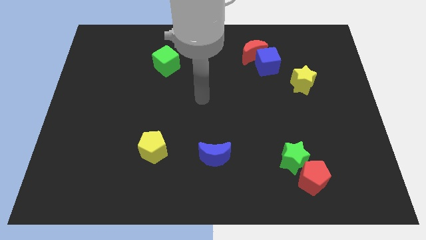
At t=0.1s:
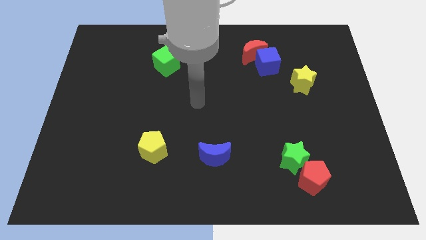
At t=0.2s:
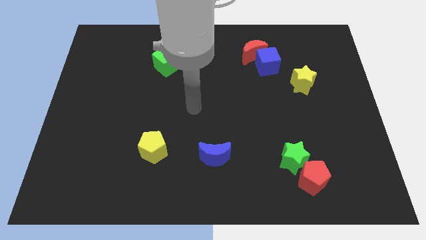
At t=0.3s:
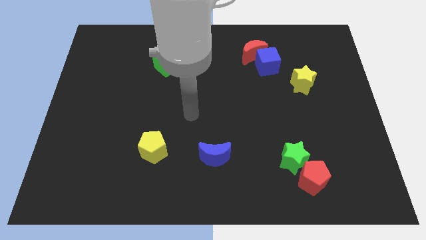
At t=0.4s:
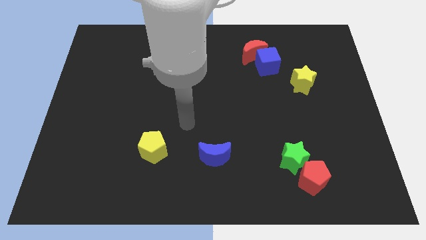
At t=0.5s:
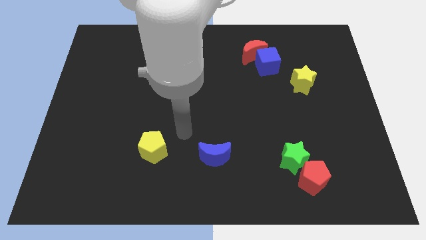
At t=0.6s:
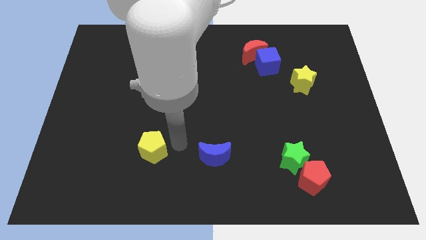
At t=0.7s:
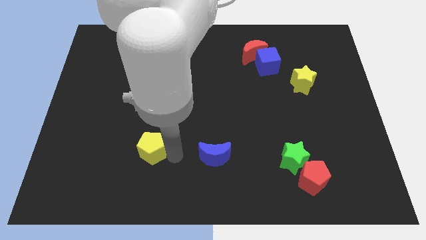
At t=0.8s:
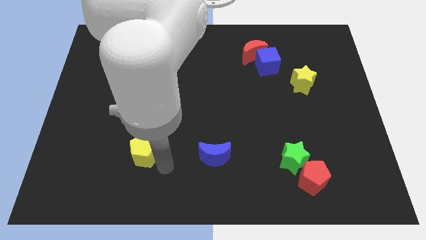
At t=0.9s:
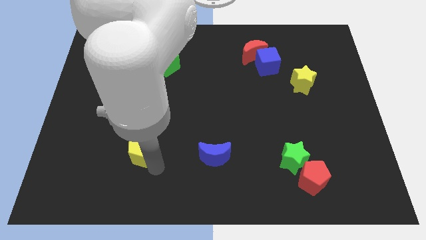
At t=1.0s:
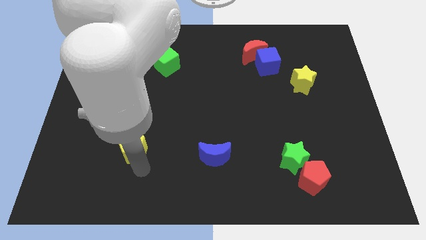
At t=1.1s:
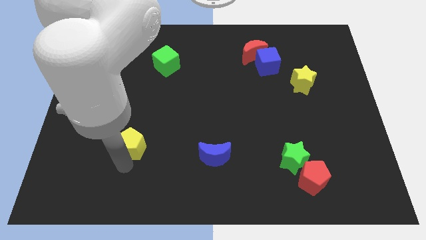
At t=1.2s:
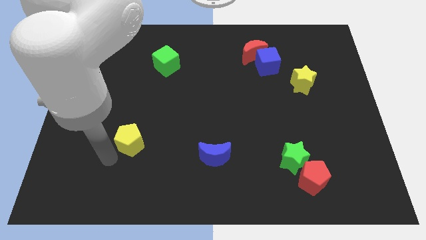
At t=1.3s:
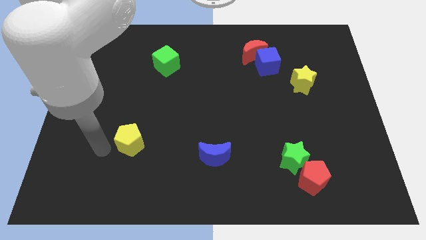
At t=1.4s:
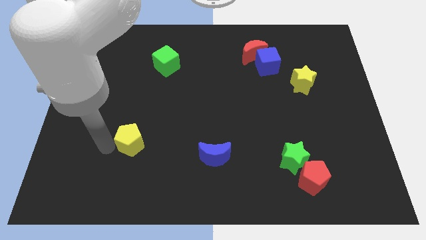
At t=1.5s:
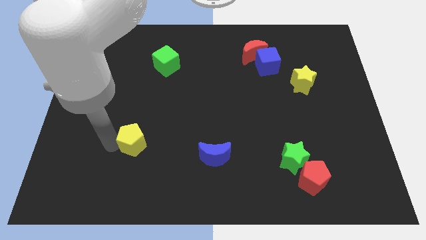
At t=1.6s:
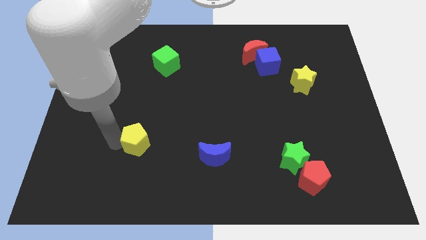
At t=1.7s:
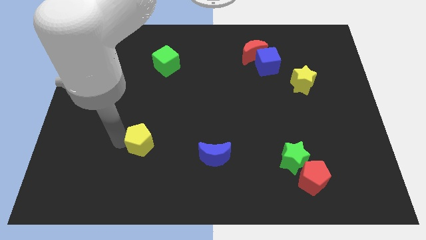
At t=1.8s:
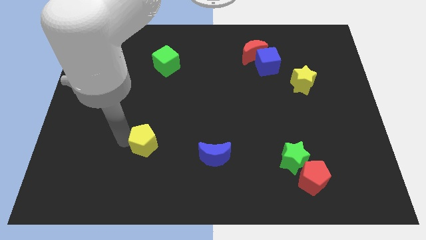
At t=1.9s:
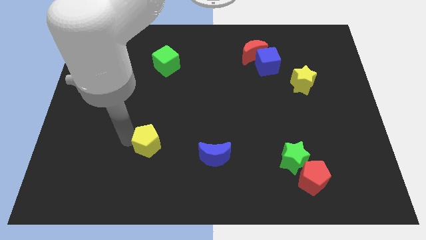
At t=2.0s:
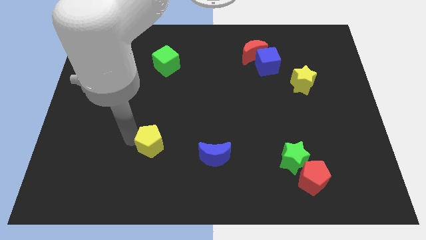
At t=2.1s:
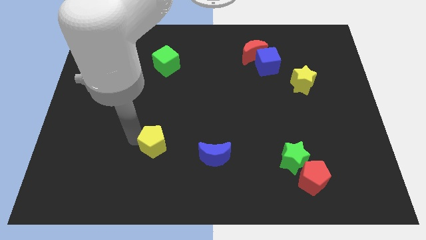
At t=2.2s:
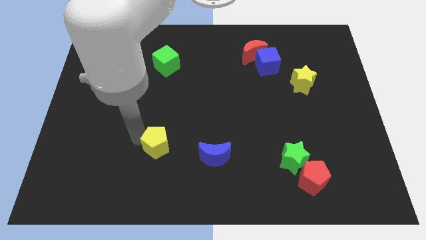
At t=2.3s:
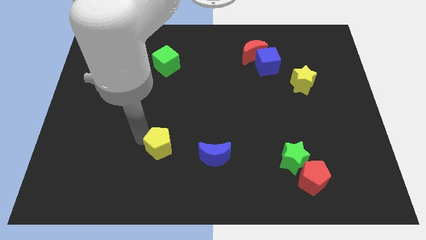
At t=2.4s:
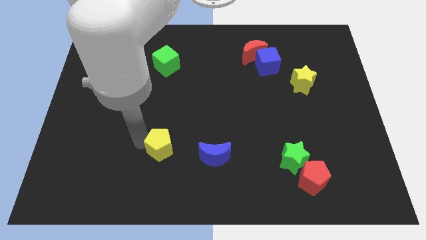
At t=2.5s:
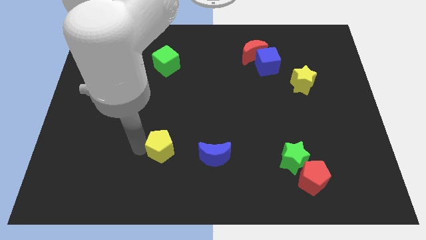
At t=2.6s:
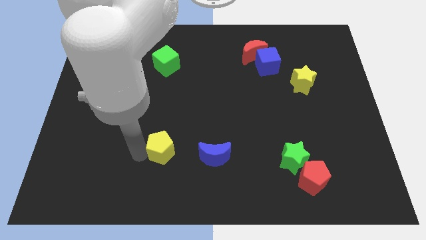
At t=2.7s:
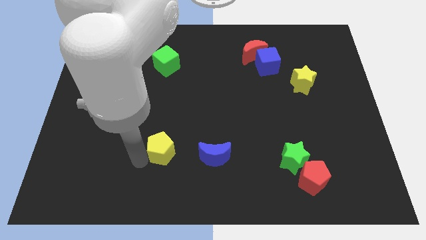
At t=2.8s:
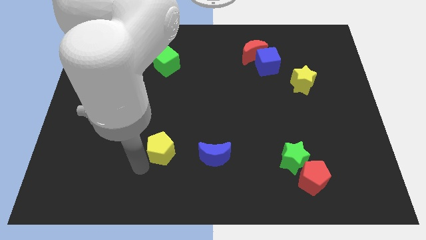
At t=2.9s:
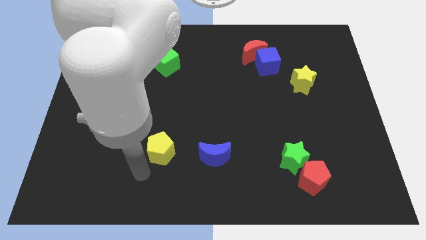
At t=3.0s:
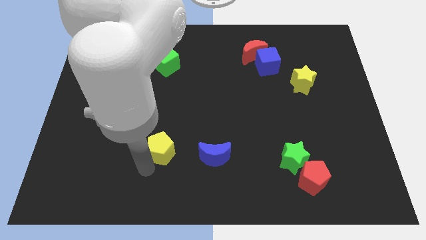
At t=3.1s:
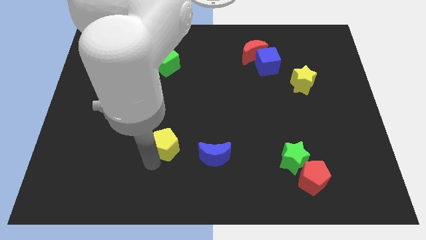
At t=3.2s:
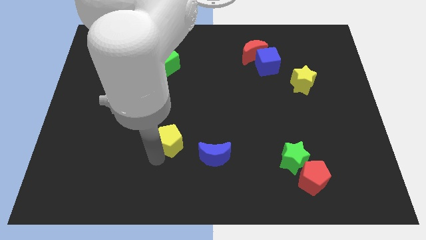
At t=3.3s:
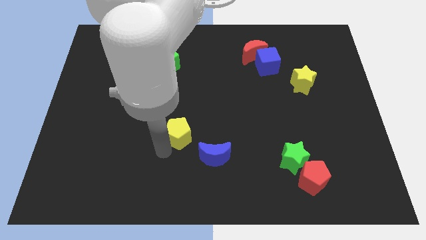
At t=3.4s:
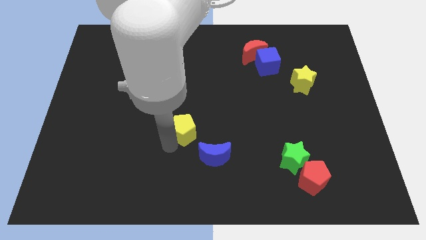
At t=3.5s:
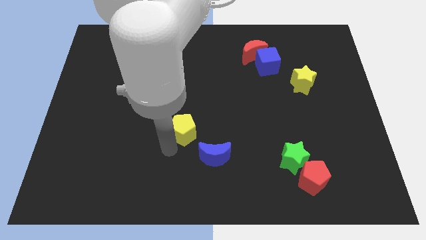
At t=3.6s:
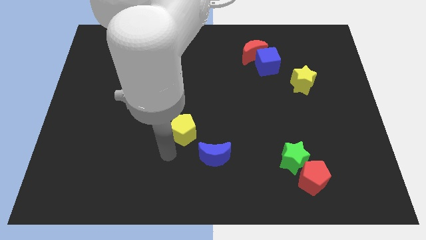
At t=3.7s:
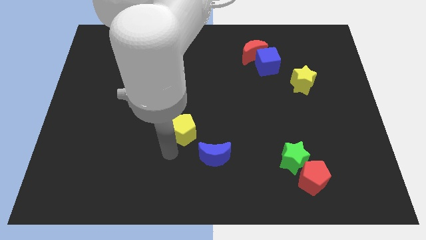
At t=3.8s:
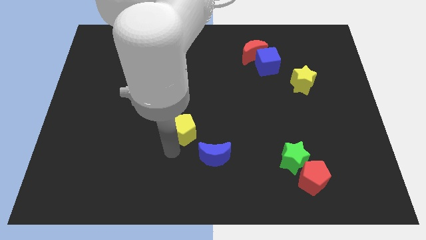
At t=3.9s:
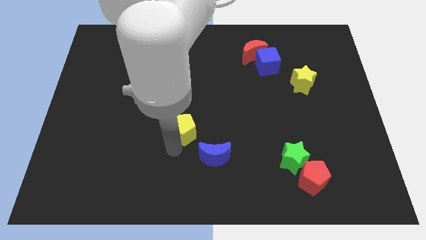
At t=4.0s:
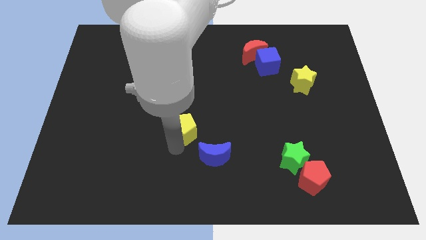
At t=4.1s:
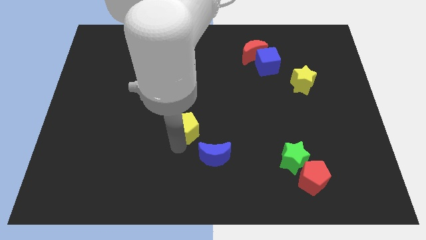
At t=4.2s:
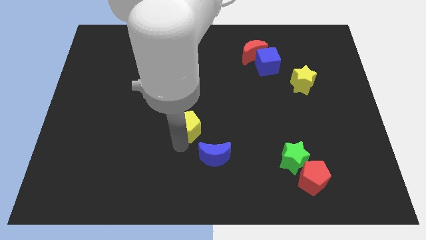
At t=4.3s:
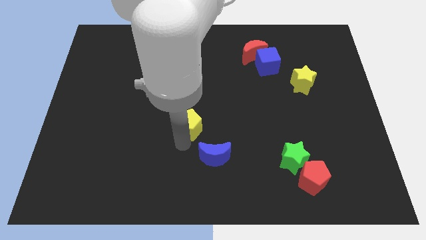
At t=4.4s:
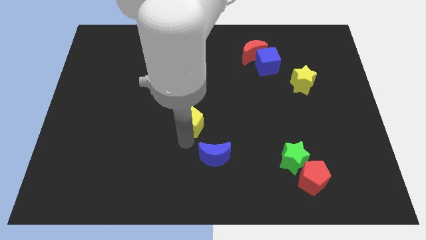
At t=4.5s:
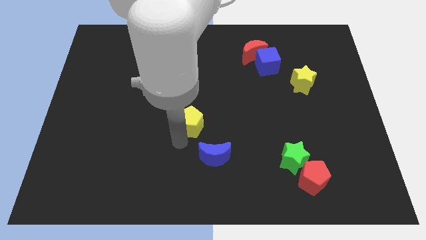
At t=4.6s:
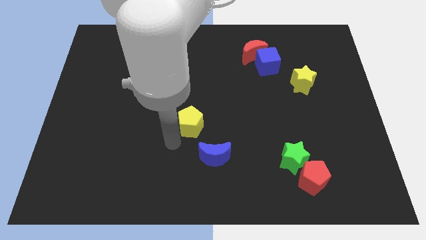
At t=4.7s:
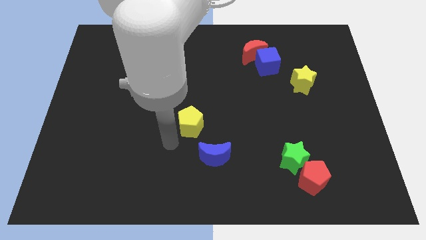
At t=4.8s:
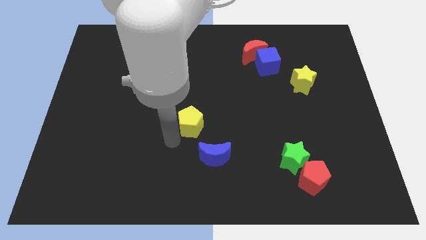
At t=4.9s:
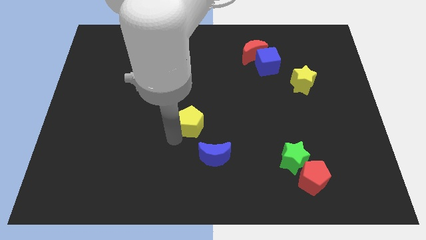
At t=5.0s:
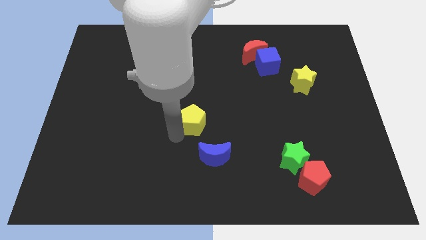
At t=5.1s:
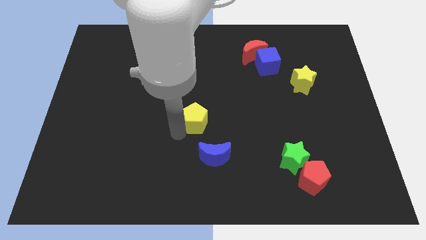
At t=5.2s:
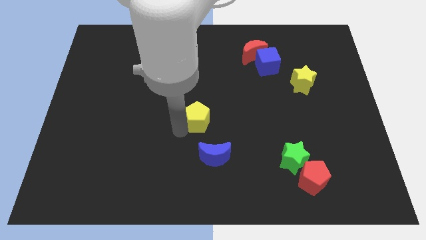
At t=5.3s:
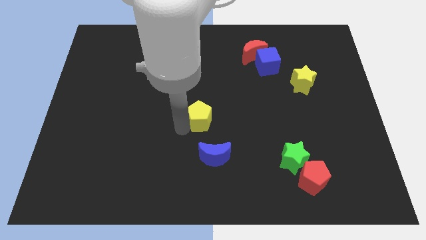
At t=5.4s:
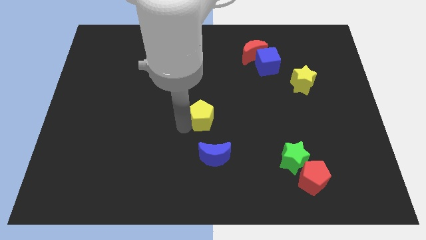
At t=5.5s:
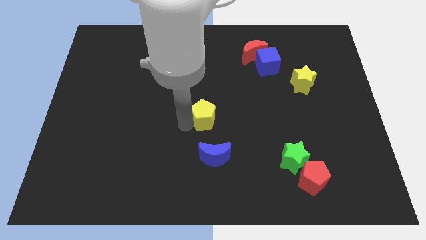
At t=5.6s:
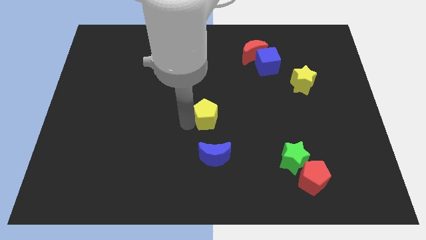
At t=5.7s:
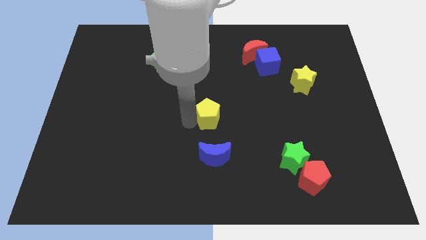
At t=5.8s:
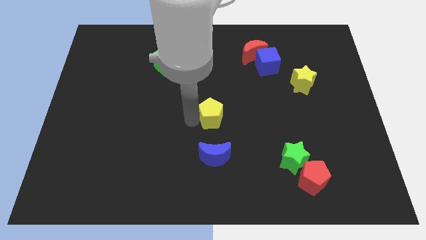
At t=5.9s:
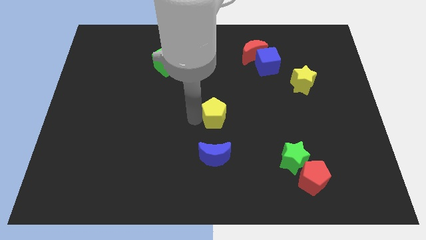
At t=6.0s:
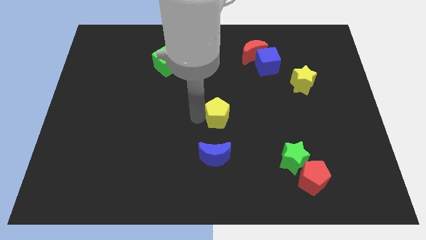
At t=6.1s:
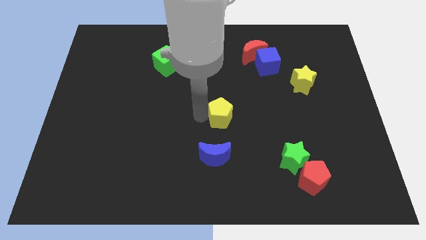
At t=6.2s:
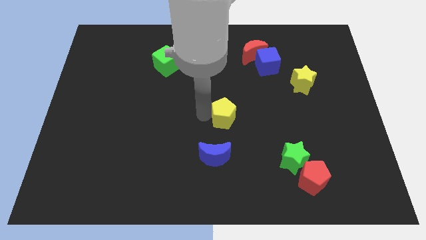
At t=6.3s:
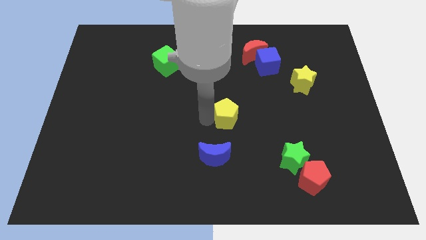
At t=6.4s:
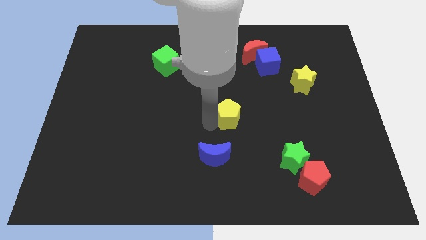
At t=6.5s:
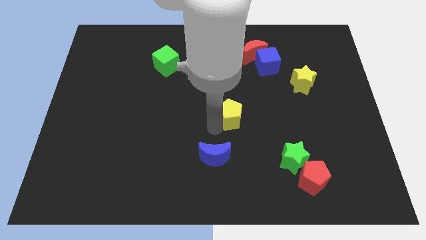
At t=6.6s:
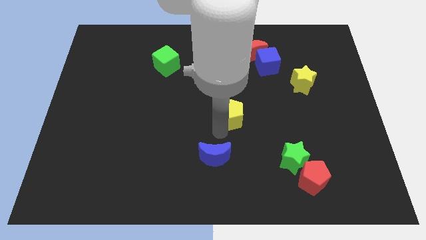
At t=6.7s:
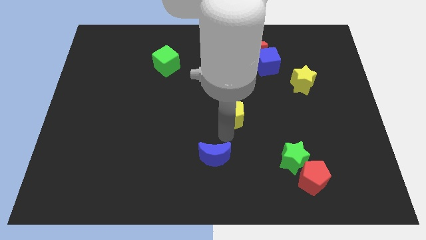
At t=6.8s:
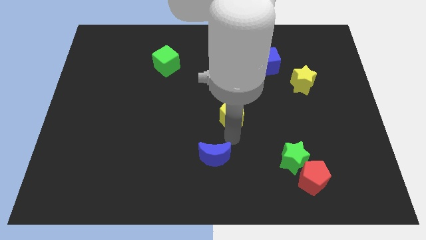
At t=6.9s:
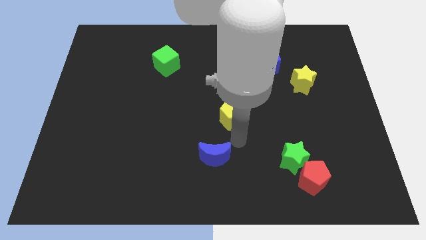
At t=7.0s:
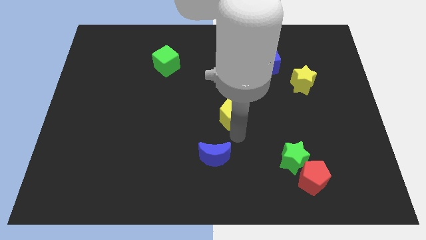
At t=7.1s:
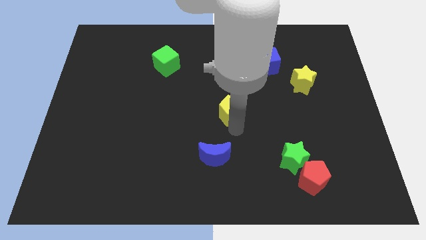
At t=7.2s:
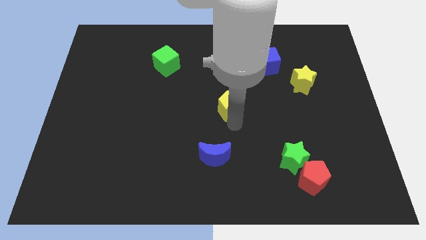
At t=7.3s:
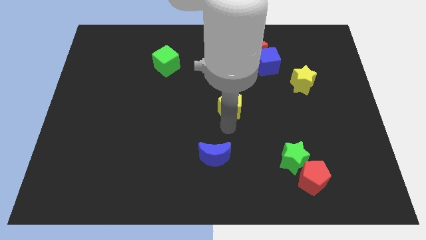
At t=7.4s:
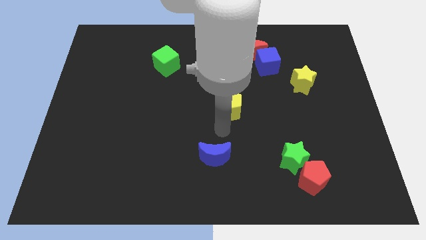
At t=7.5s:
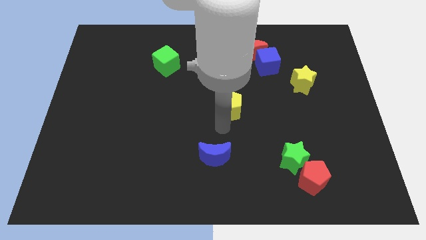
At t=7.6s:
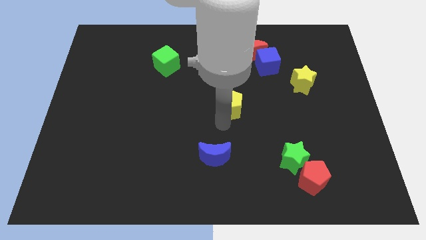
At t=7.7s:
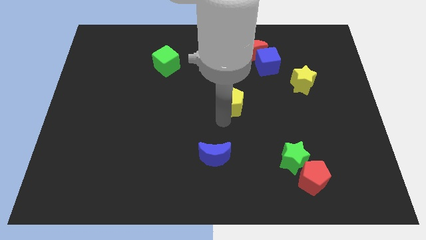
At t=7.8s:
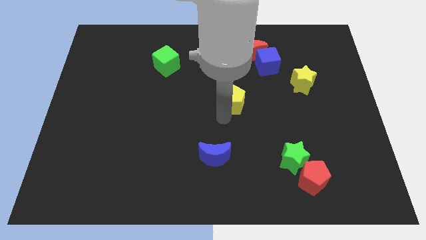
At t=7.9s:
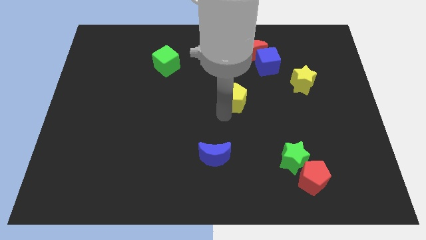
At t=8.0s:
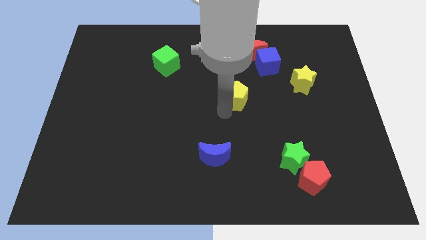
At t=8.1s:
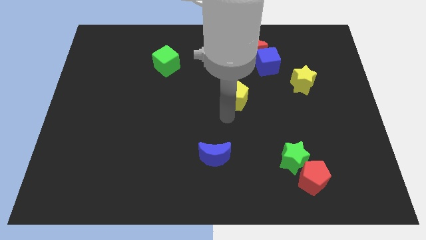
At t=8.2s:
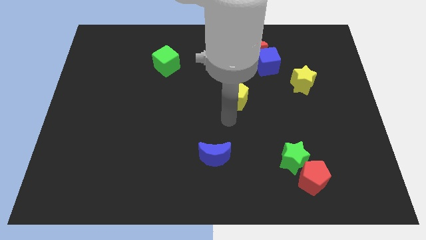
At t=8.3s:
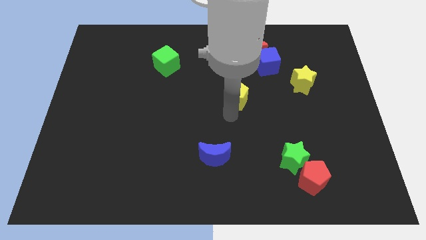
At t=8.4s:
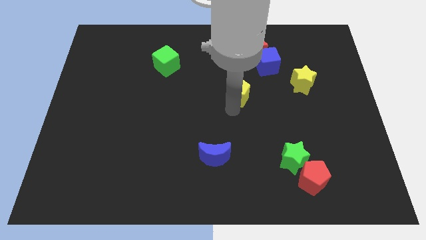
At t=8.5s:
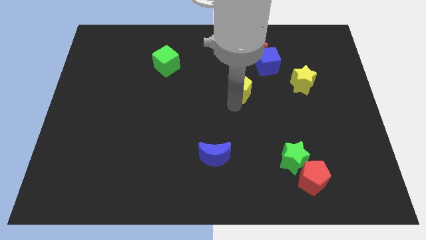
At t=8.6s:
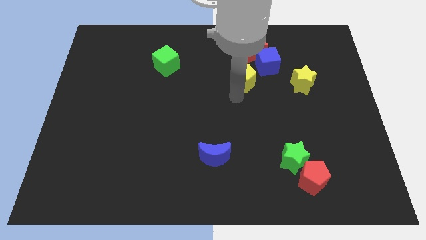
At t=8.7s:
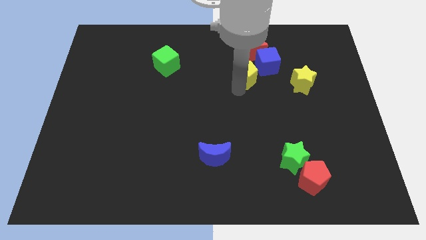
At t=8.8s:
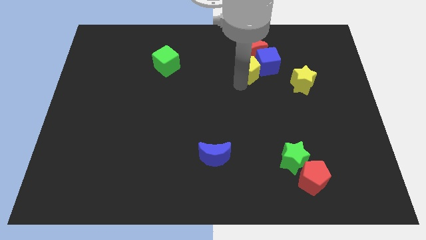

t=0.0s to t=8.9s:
slide the yellow pentagon close to the blue cube
